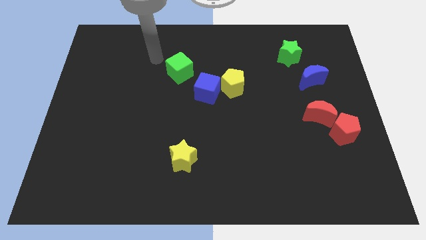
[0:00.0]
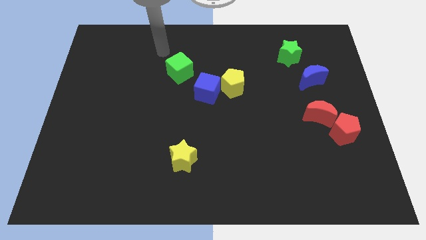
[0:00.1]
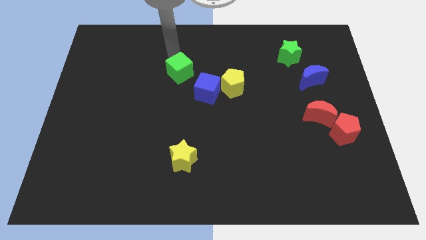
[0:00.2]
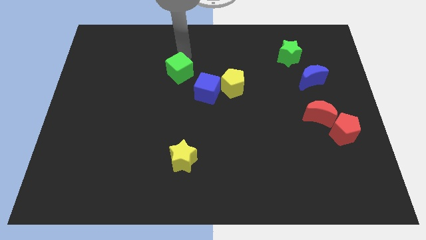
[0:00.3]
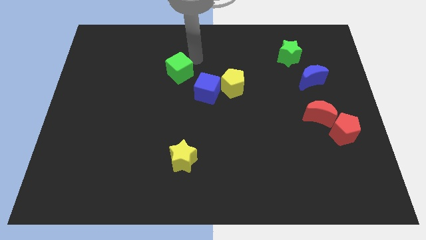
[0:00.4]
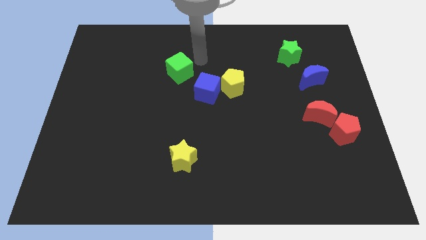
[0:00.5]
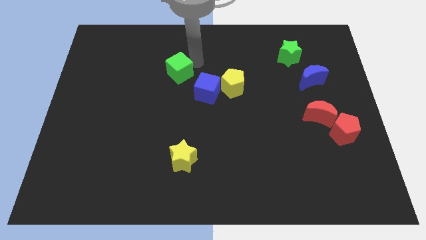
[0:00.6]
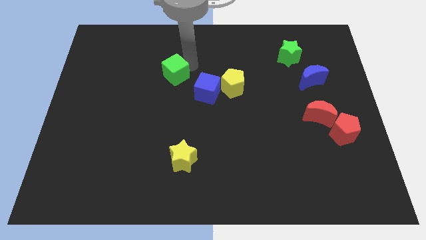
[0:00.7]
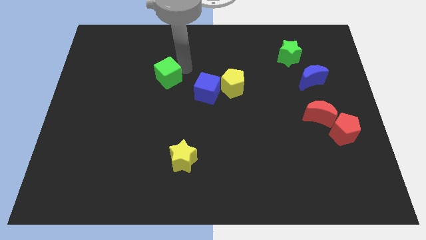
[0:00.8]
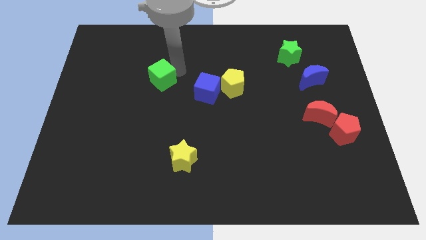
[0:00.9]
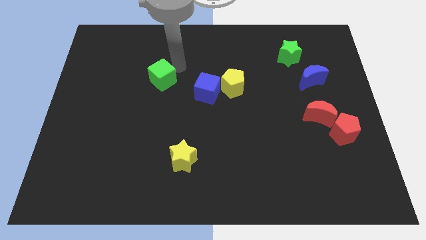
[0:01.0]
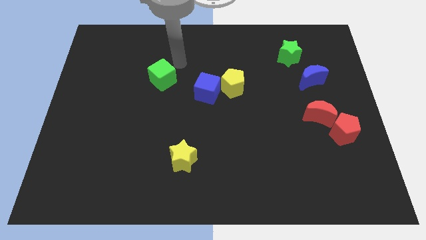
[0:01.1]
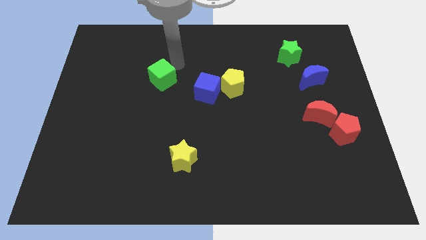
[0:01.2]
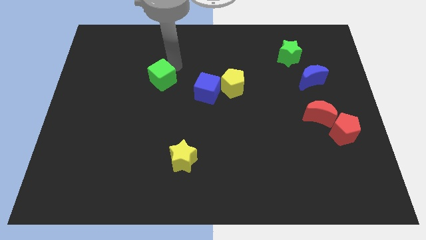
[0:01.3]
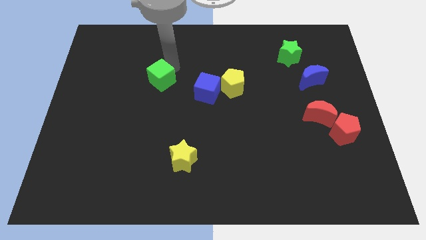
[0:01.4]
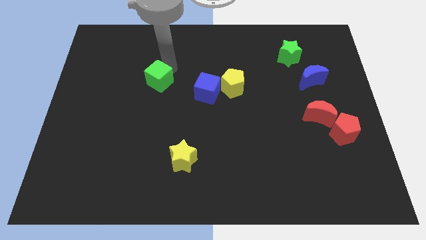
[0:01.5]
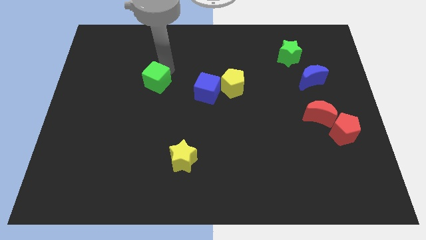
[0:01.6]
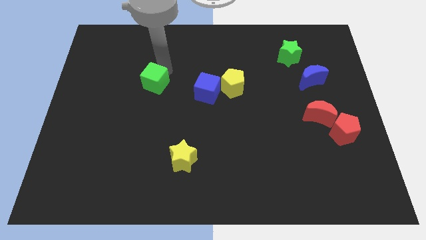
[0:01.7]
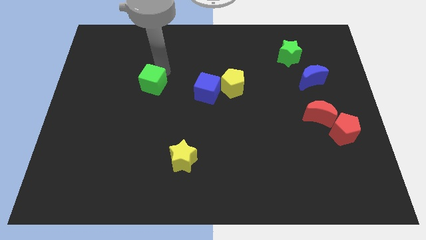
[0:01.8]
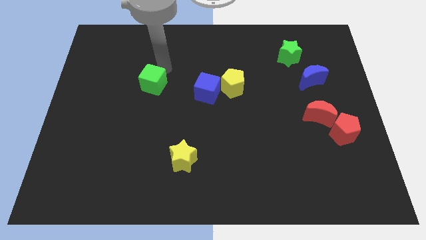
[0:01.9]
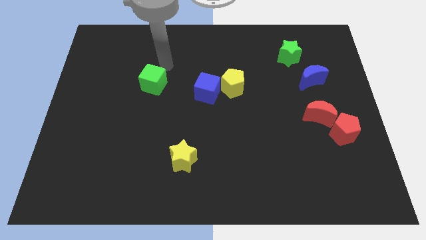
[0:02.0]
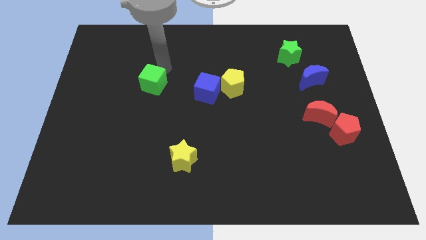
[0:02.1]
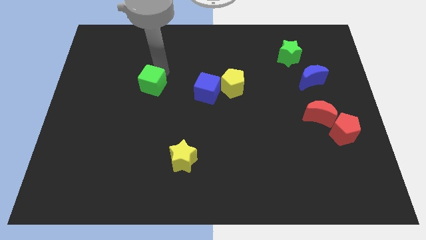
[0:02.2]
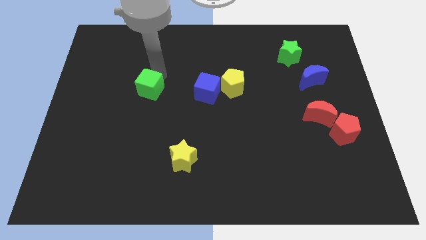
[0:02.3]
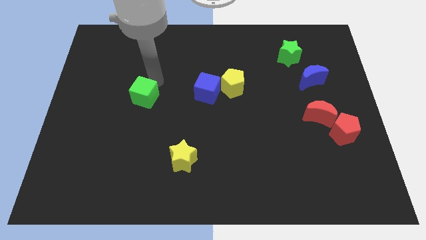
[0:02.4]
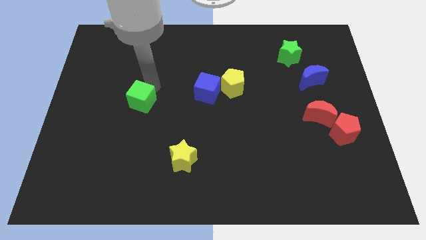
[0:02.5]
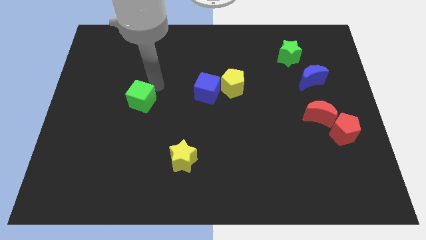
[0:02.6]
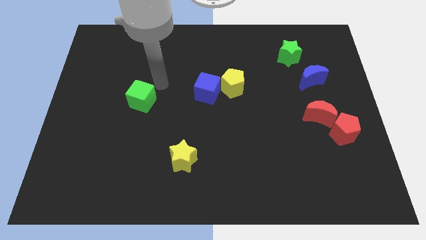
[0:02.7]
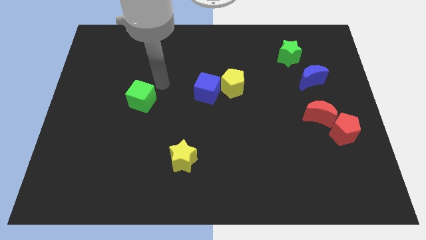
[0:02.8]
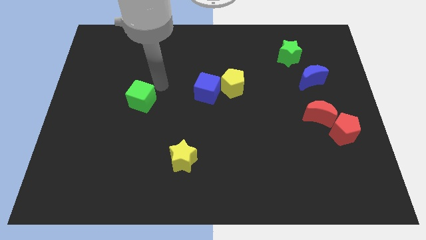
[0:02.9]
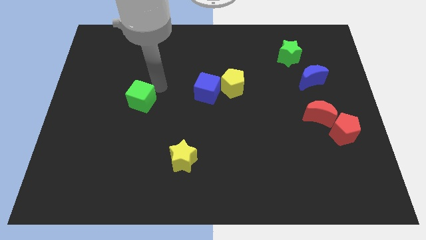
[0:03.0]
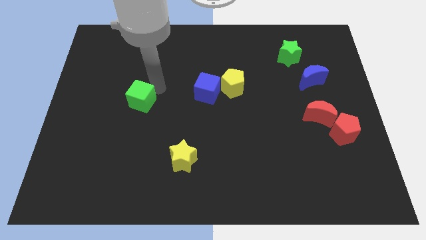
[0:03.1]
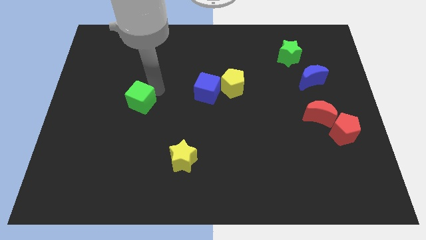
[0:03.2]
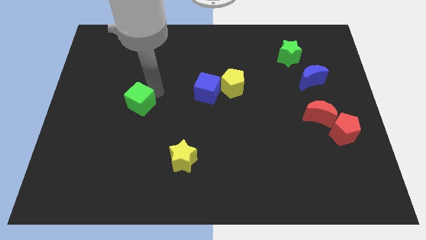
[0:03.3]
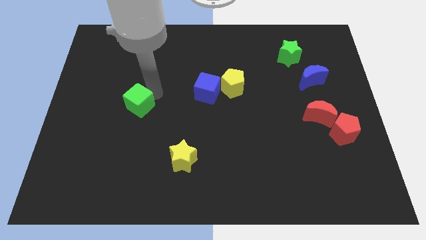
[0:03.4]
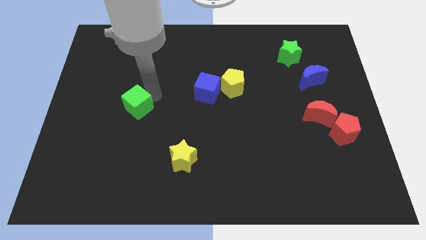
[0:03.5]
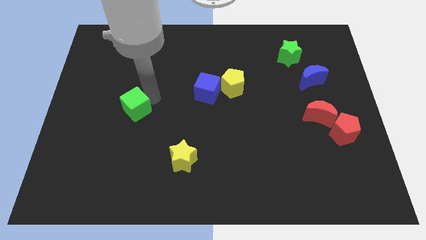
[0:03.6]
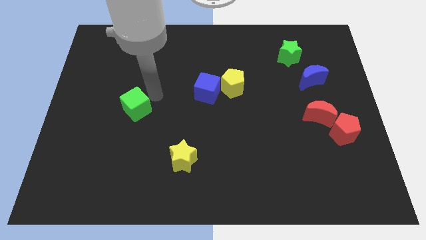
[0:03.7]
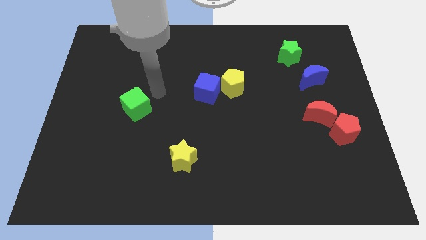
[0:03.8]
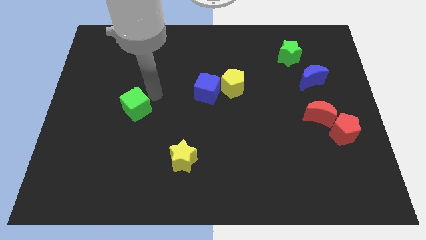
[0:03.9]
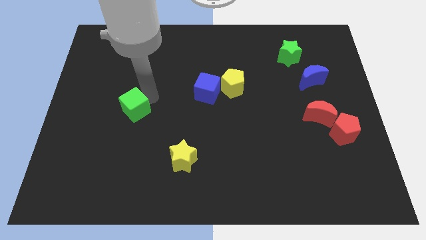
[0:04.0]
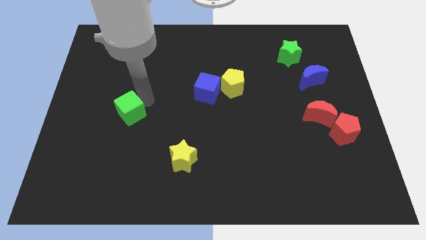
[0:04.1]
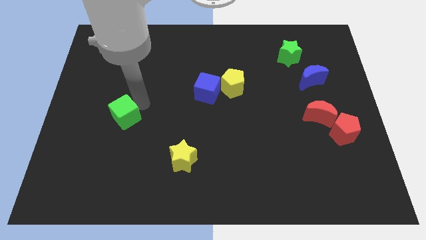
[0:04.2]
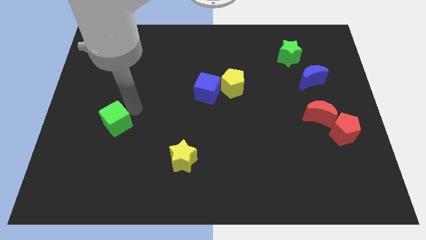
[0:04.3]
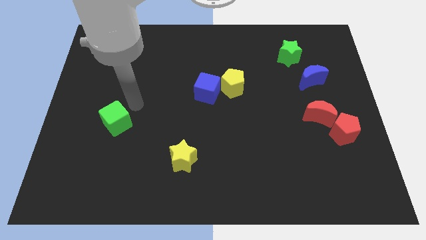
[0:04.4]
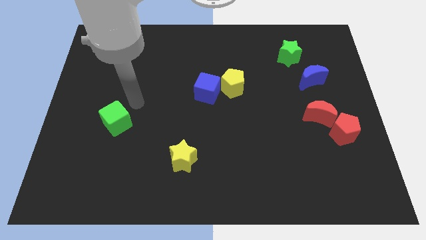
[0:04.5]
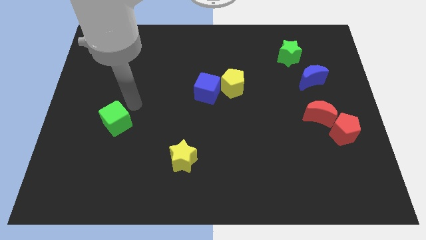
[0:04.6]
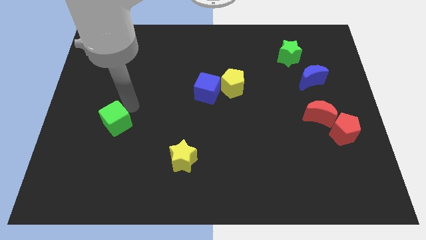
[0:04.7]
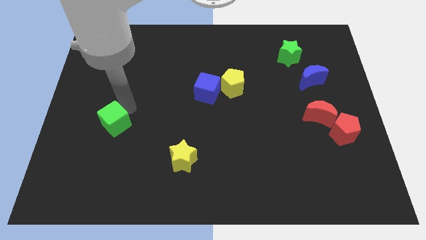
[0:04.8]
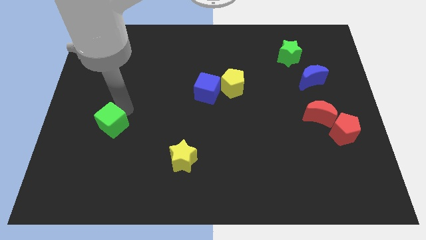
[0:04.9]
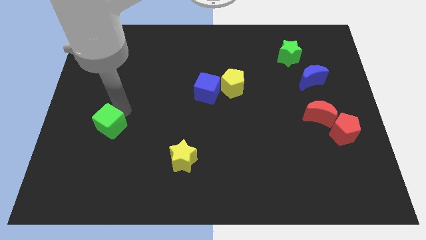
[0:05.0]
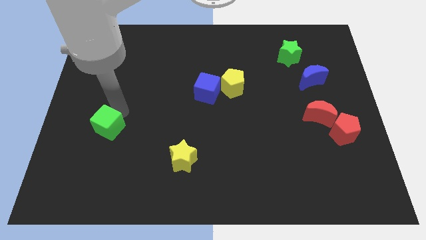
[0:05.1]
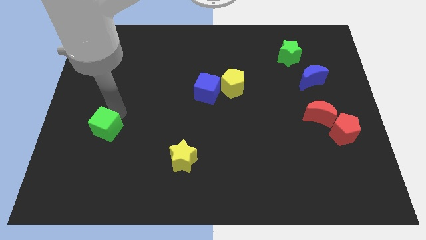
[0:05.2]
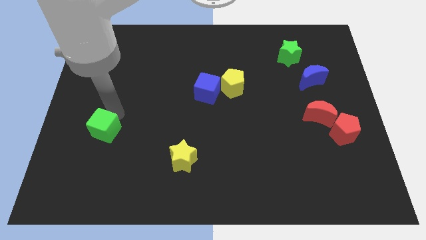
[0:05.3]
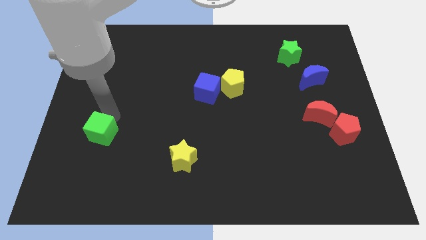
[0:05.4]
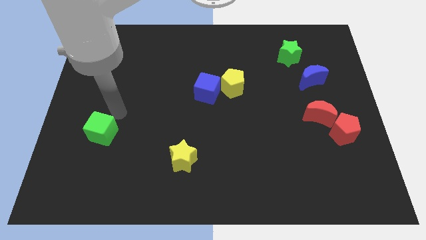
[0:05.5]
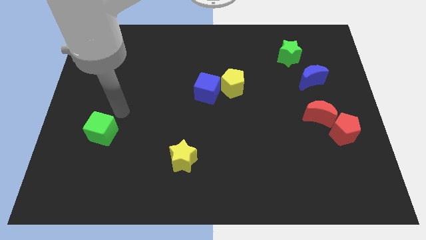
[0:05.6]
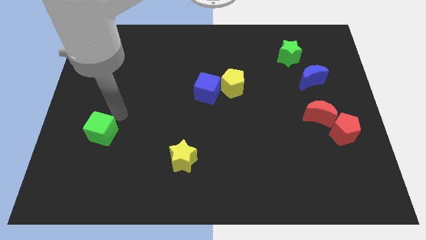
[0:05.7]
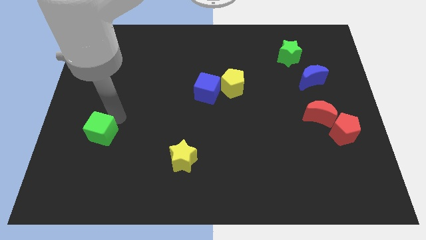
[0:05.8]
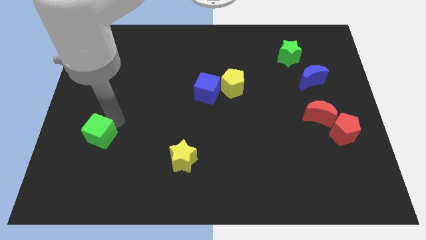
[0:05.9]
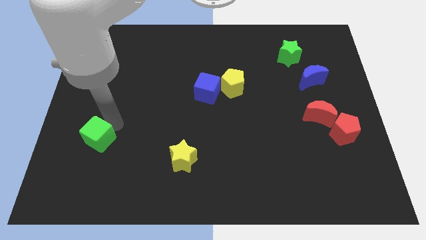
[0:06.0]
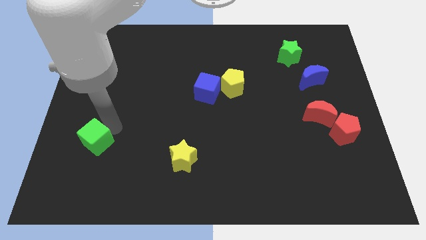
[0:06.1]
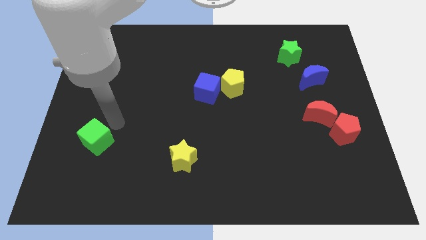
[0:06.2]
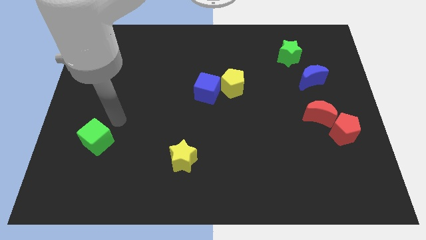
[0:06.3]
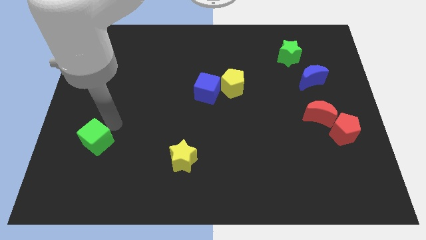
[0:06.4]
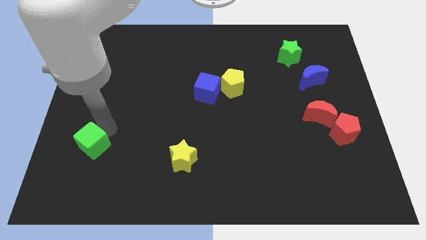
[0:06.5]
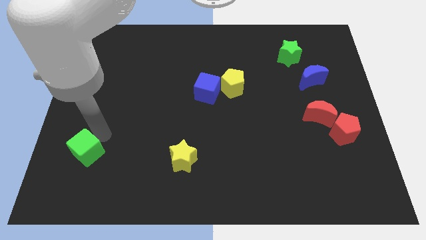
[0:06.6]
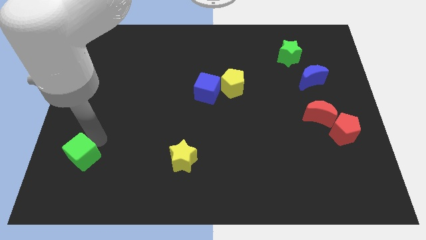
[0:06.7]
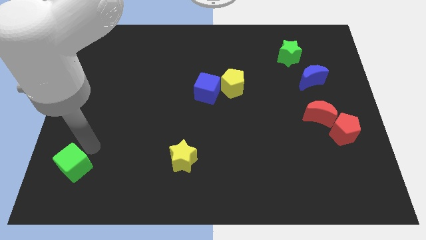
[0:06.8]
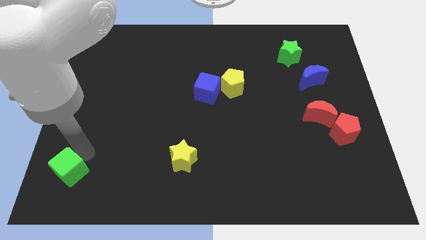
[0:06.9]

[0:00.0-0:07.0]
put the green cube to the bottom left corner

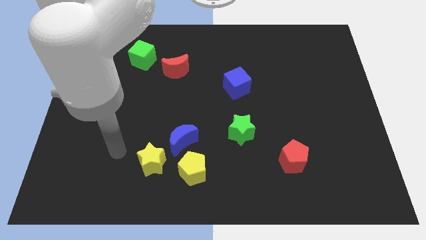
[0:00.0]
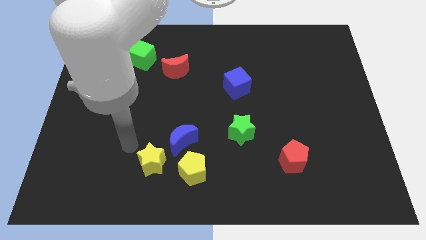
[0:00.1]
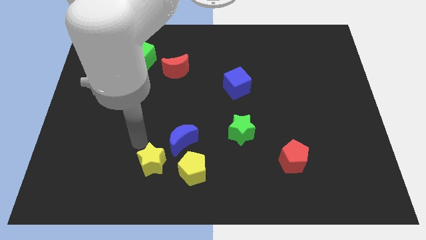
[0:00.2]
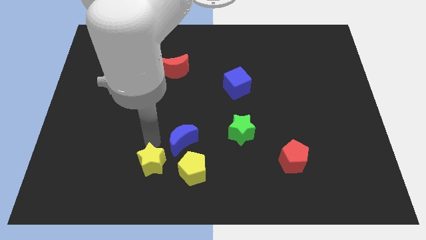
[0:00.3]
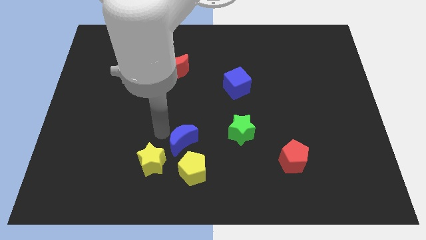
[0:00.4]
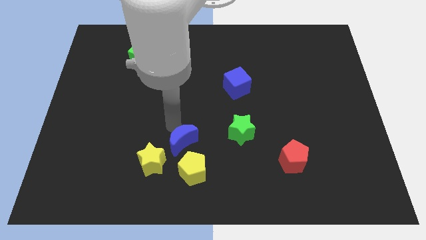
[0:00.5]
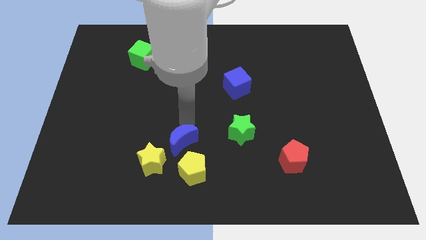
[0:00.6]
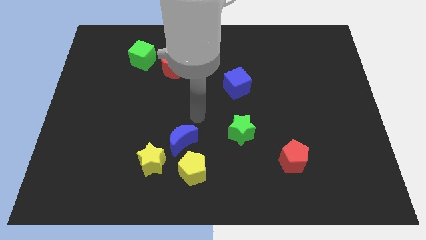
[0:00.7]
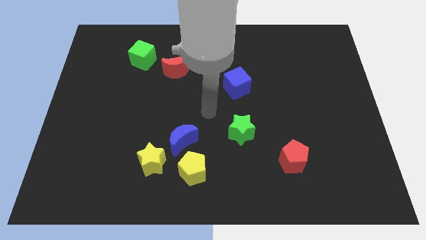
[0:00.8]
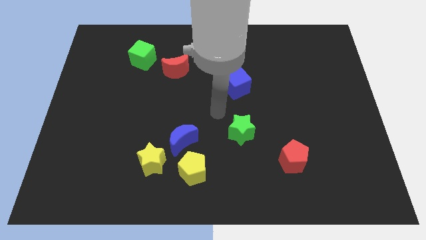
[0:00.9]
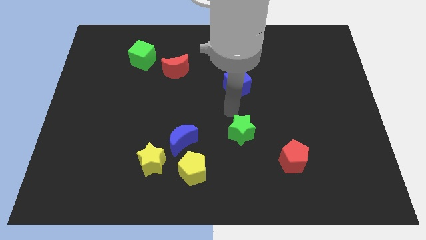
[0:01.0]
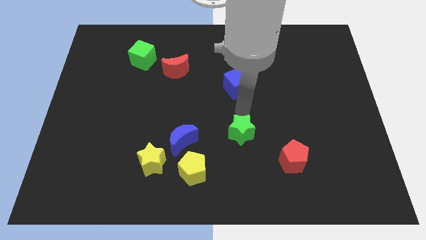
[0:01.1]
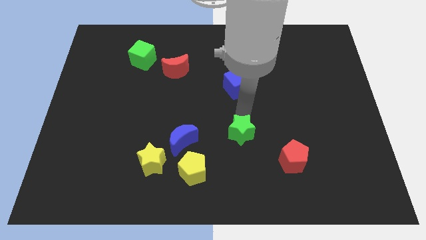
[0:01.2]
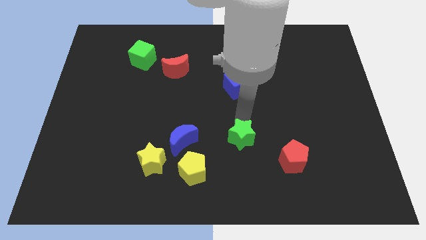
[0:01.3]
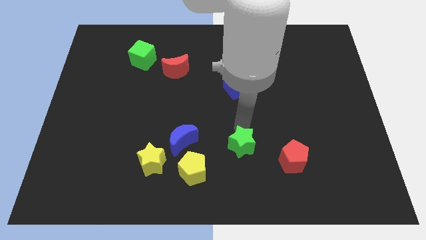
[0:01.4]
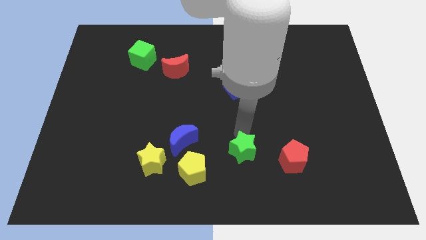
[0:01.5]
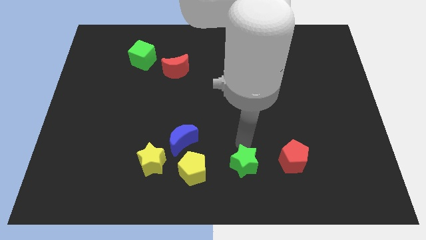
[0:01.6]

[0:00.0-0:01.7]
slide the green star to the bottom
